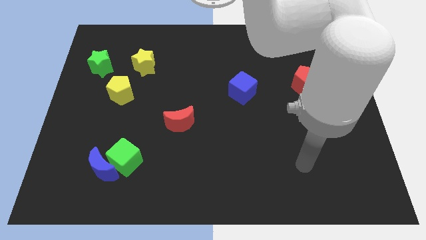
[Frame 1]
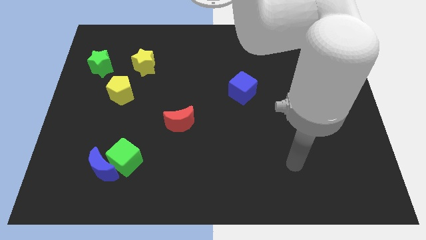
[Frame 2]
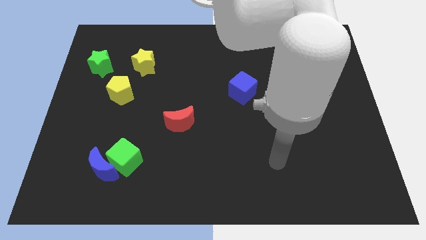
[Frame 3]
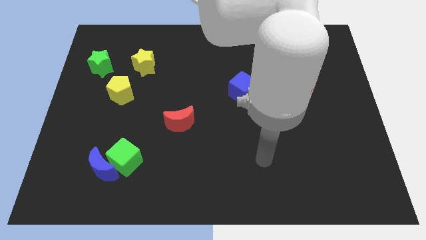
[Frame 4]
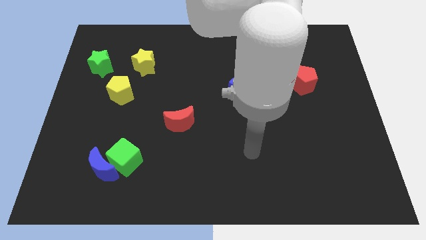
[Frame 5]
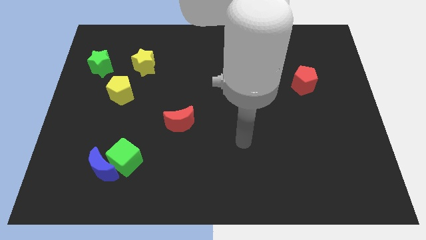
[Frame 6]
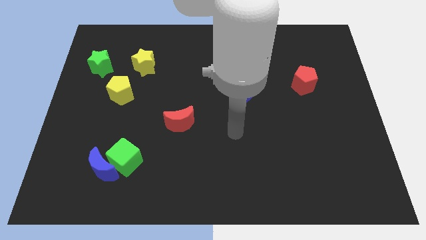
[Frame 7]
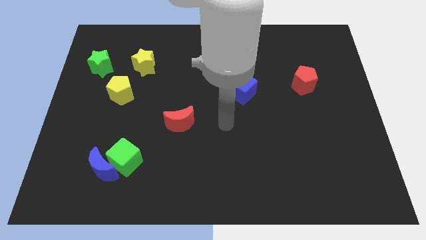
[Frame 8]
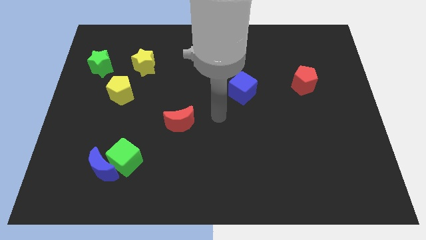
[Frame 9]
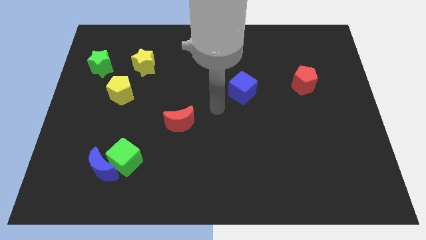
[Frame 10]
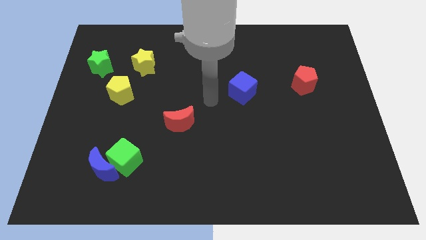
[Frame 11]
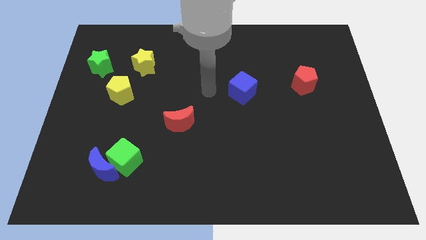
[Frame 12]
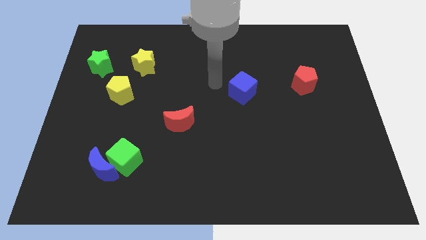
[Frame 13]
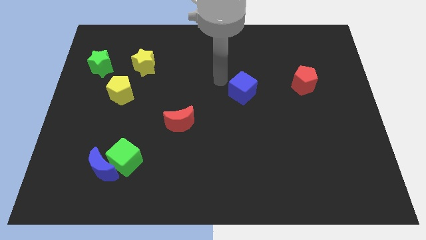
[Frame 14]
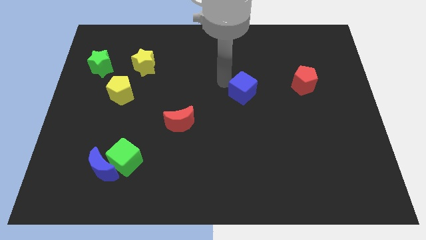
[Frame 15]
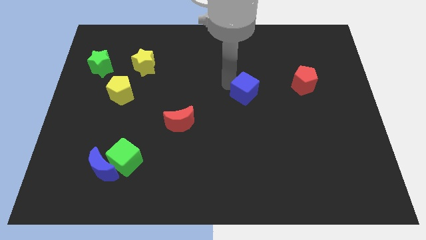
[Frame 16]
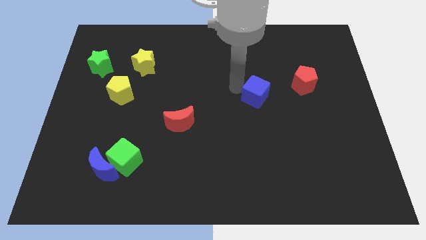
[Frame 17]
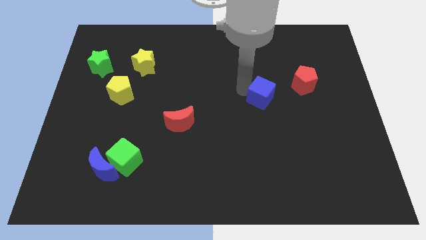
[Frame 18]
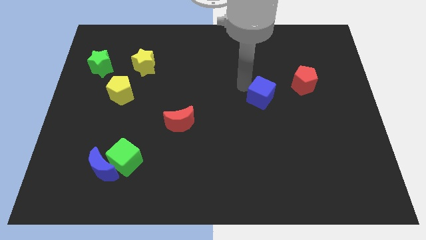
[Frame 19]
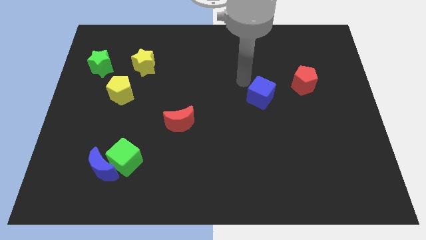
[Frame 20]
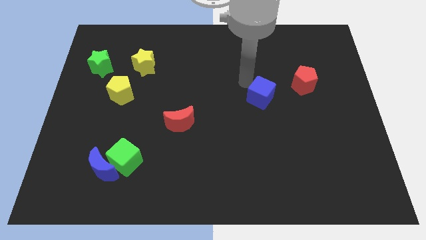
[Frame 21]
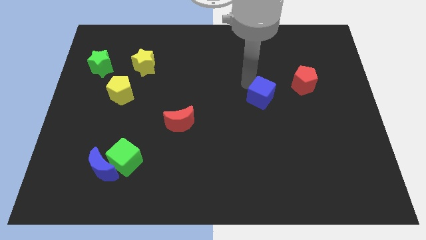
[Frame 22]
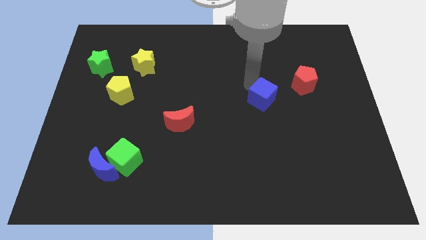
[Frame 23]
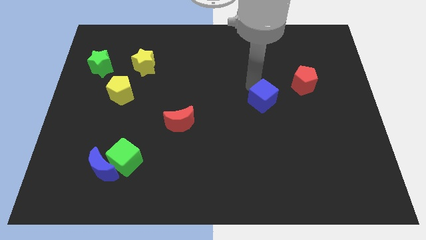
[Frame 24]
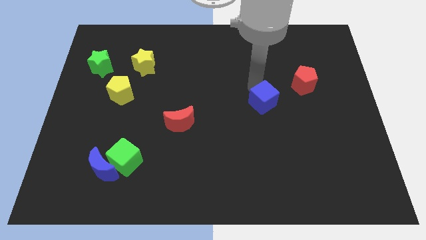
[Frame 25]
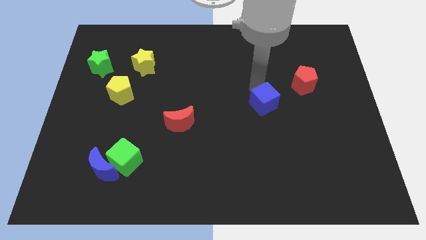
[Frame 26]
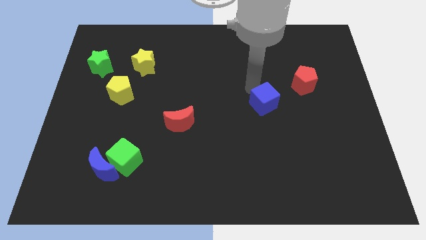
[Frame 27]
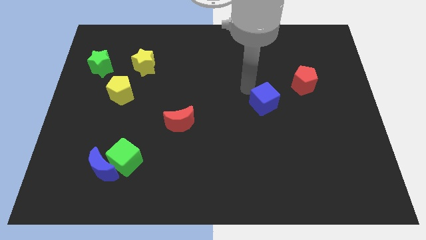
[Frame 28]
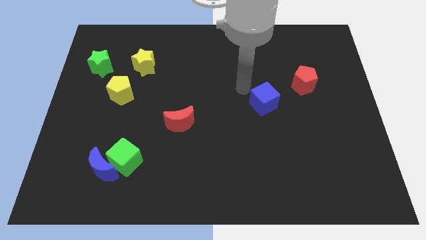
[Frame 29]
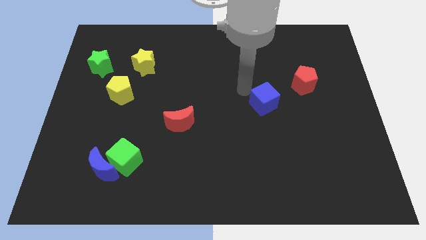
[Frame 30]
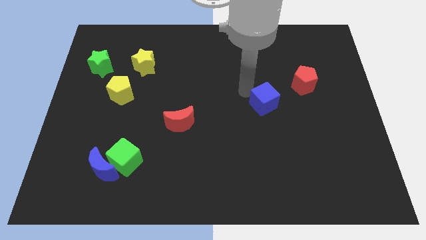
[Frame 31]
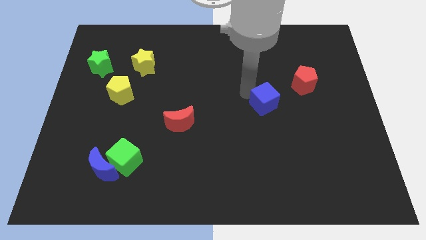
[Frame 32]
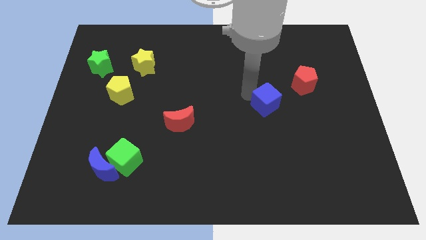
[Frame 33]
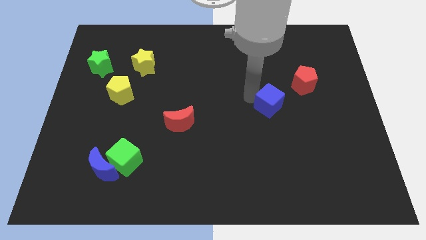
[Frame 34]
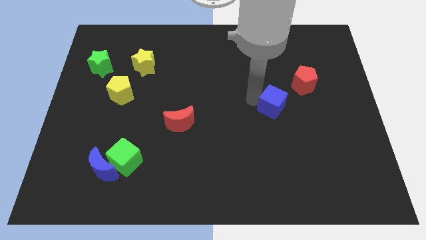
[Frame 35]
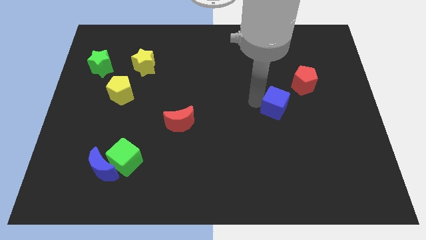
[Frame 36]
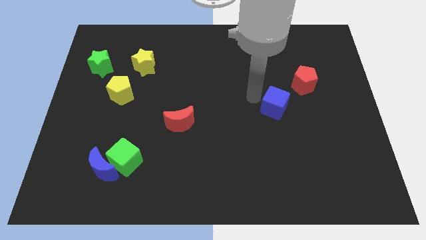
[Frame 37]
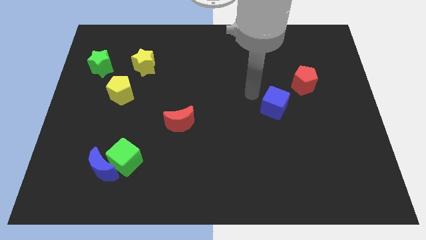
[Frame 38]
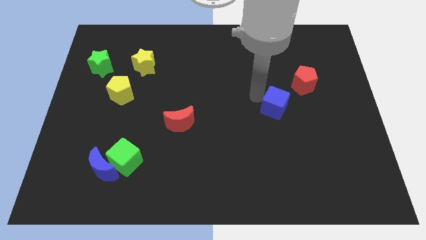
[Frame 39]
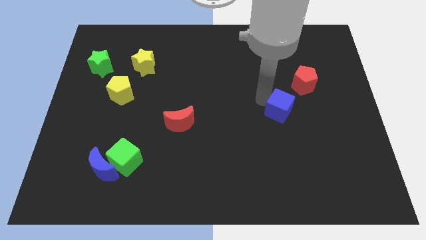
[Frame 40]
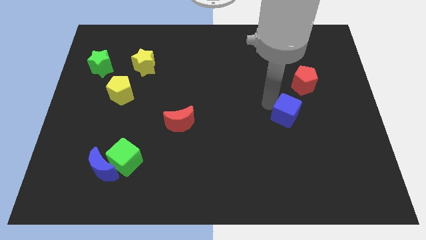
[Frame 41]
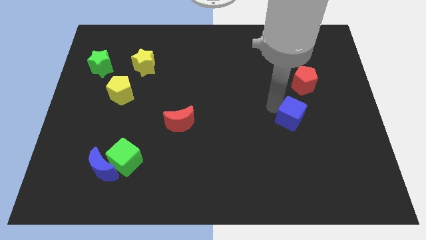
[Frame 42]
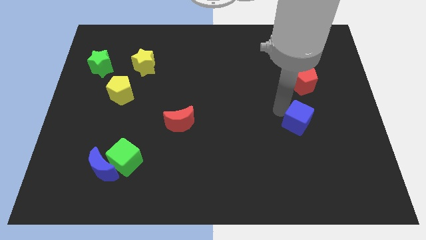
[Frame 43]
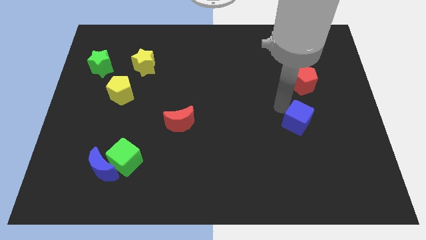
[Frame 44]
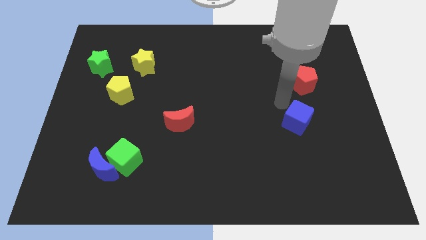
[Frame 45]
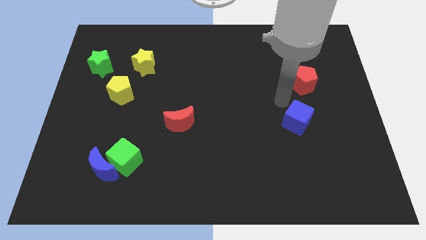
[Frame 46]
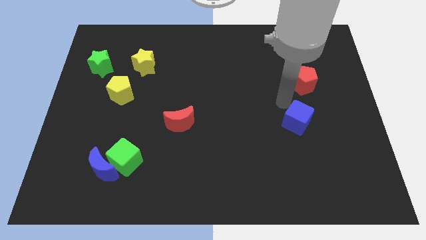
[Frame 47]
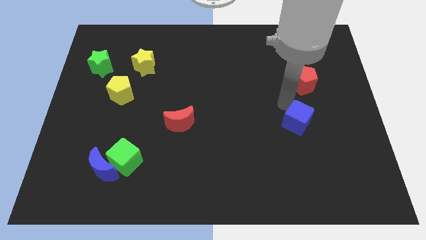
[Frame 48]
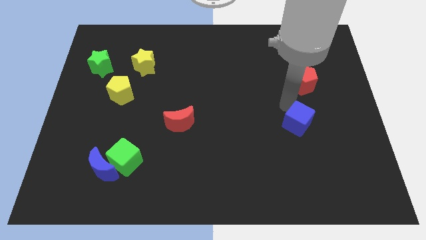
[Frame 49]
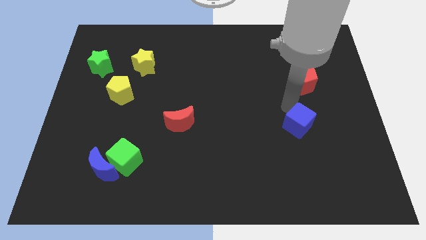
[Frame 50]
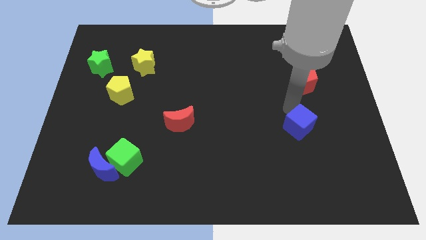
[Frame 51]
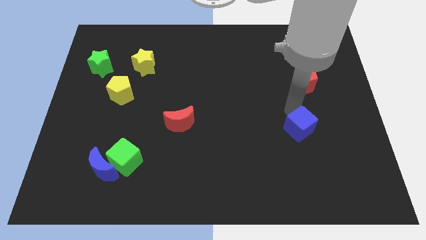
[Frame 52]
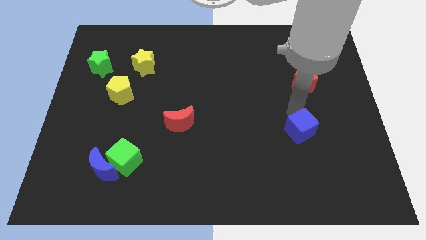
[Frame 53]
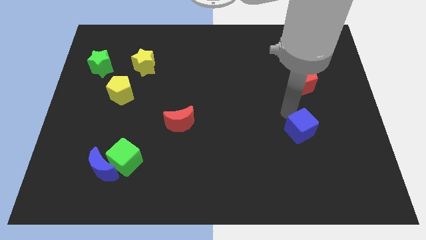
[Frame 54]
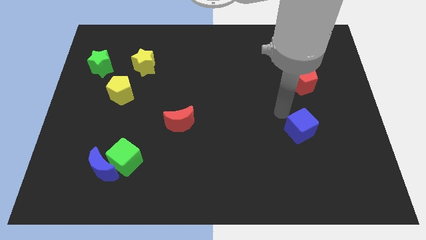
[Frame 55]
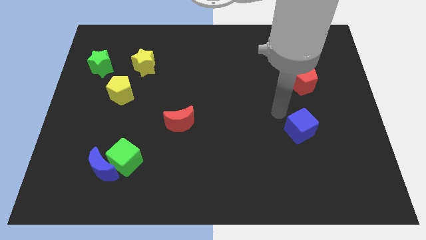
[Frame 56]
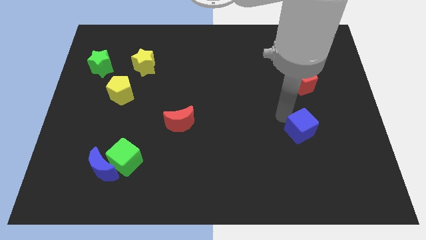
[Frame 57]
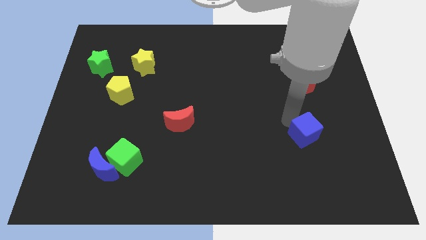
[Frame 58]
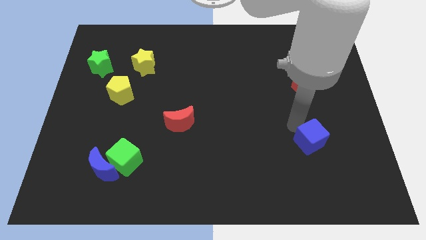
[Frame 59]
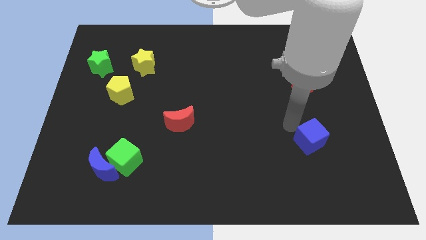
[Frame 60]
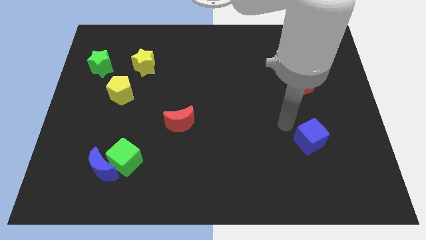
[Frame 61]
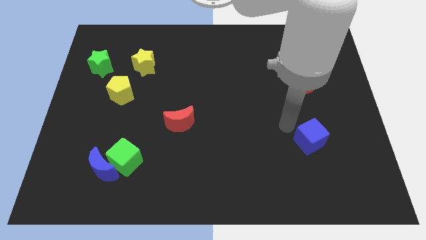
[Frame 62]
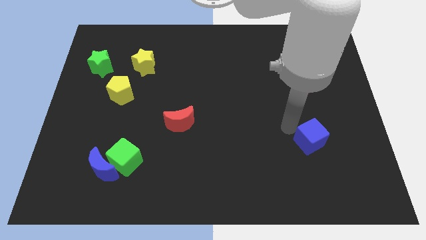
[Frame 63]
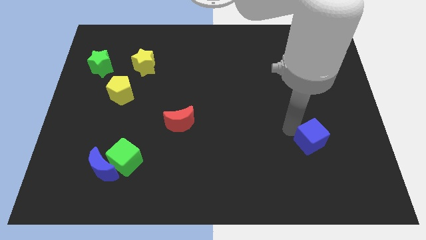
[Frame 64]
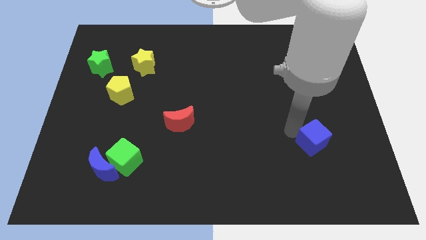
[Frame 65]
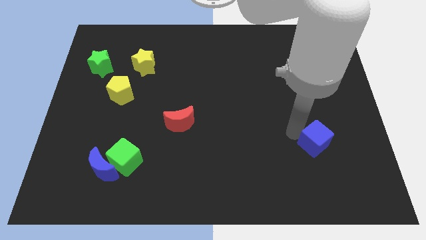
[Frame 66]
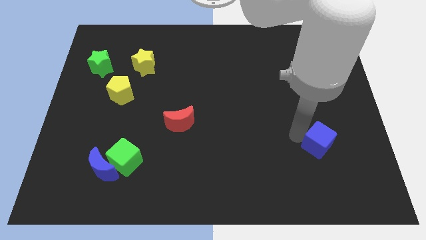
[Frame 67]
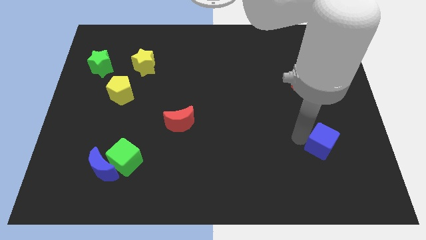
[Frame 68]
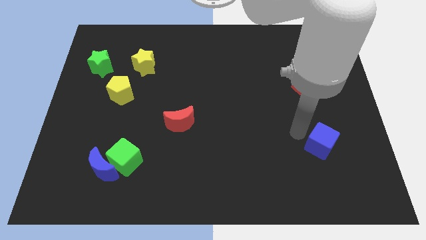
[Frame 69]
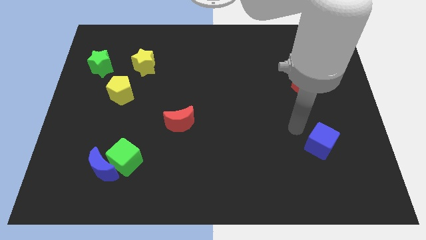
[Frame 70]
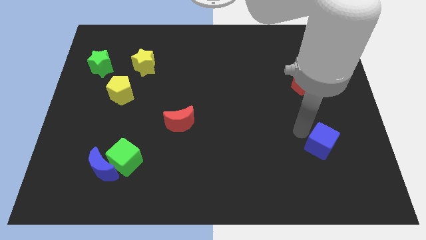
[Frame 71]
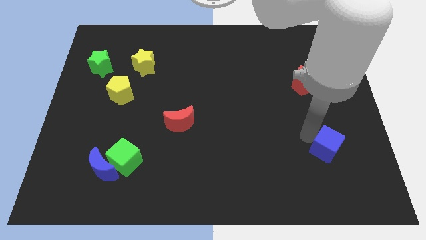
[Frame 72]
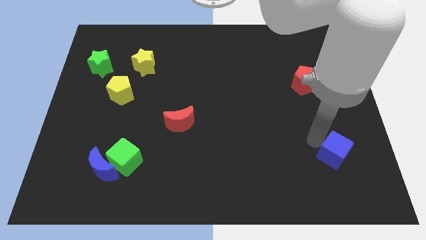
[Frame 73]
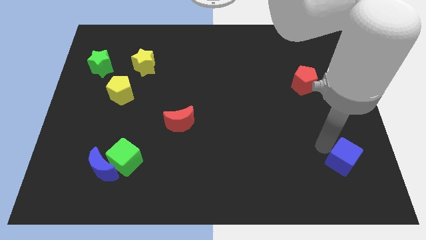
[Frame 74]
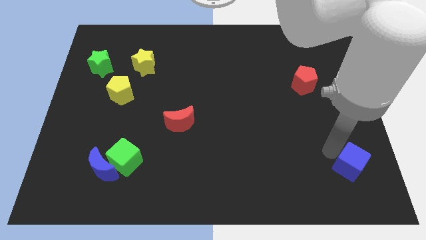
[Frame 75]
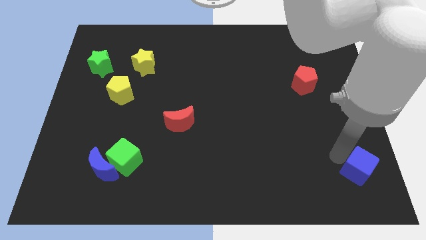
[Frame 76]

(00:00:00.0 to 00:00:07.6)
move the blue cube to the bottom right of the board
